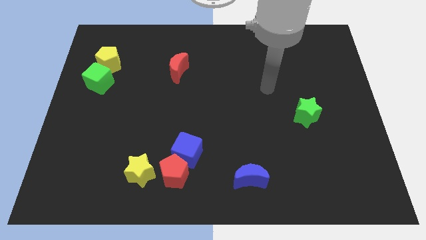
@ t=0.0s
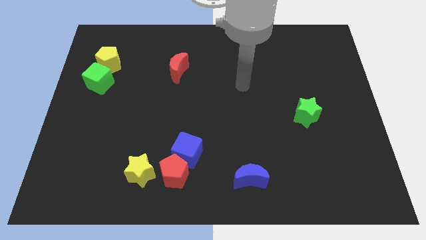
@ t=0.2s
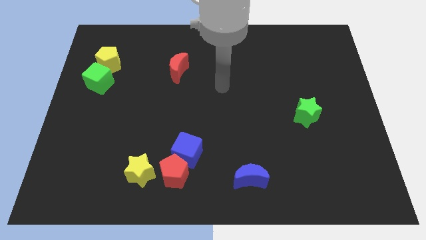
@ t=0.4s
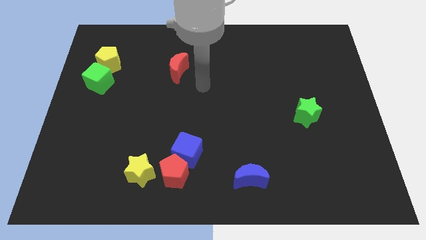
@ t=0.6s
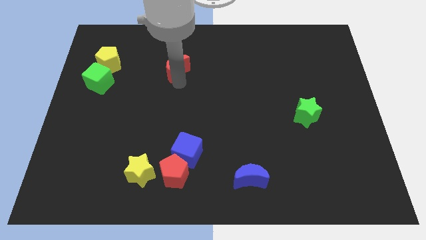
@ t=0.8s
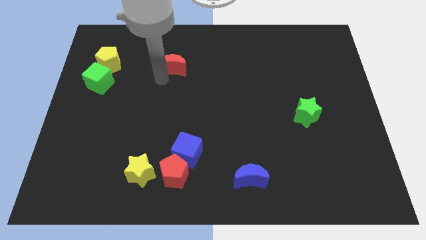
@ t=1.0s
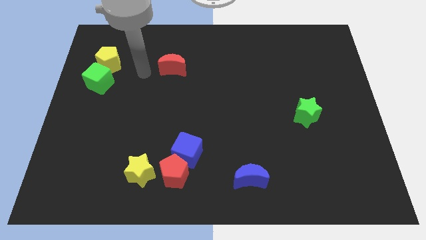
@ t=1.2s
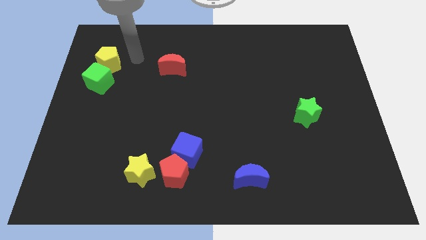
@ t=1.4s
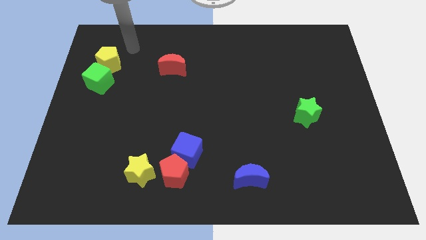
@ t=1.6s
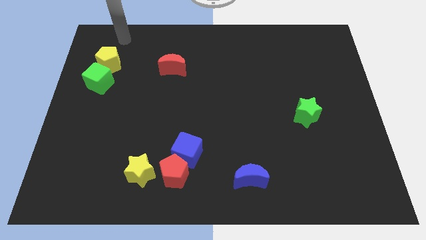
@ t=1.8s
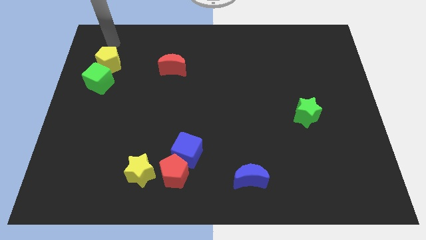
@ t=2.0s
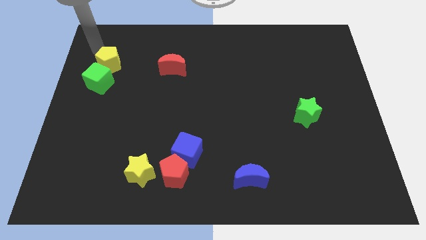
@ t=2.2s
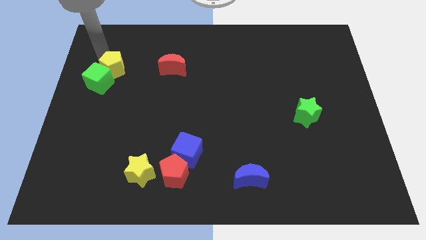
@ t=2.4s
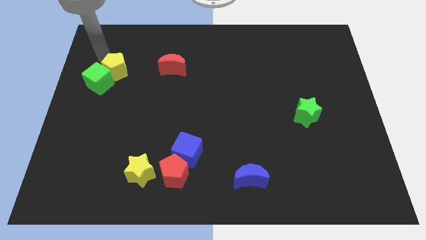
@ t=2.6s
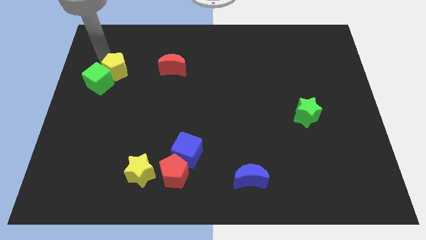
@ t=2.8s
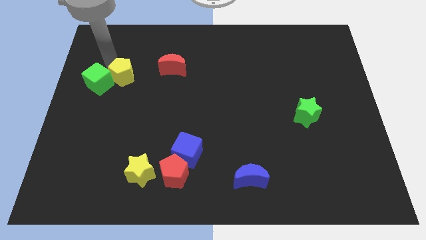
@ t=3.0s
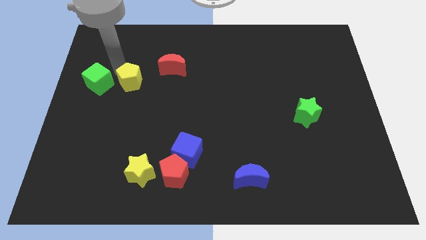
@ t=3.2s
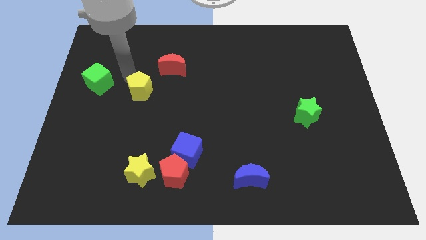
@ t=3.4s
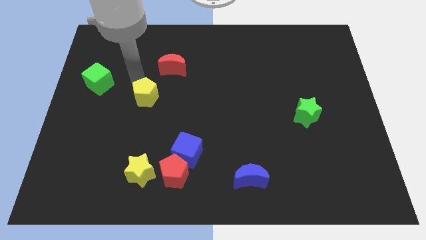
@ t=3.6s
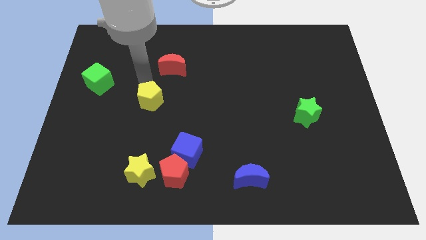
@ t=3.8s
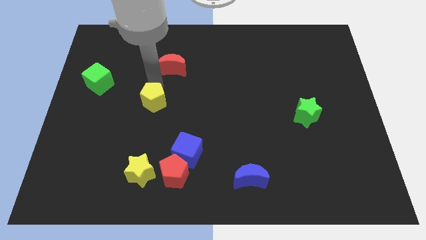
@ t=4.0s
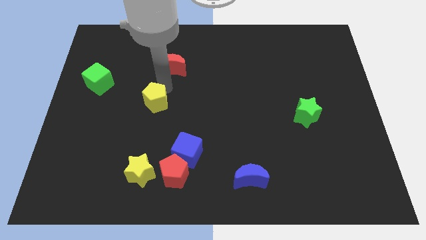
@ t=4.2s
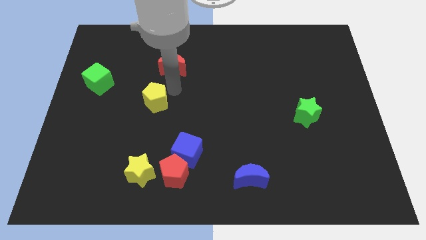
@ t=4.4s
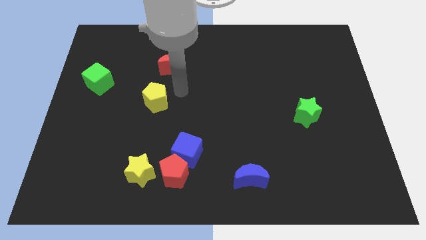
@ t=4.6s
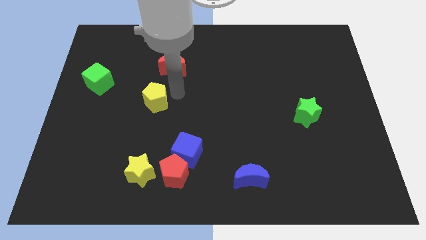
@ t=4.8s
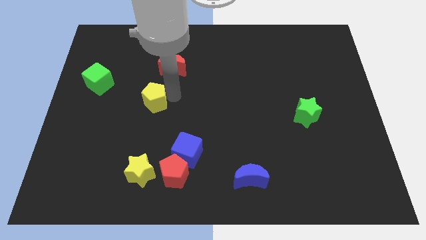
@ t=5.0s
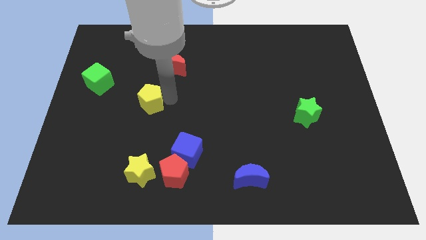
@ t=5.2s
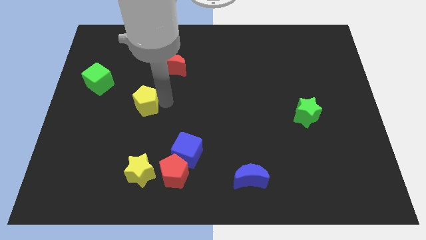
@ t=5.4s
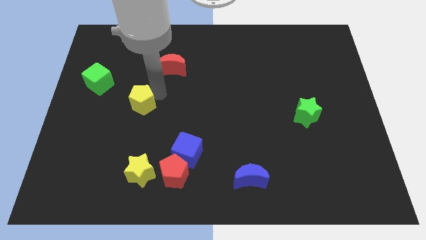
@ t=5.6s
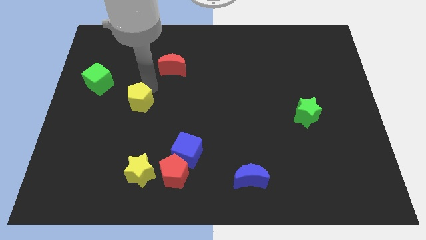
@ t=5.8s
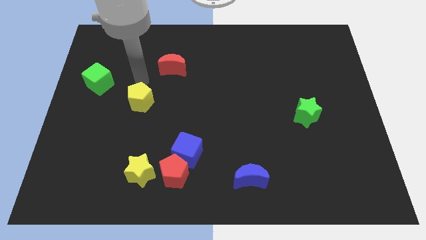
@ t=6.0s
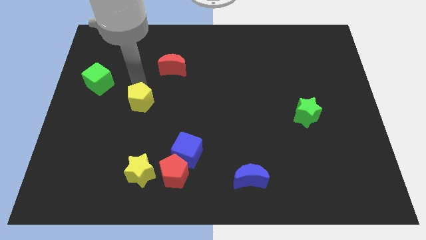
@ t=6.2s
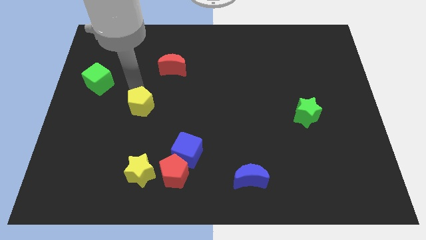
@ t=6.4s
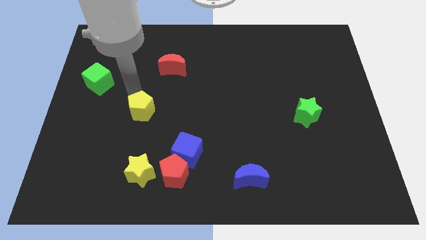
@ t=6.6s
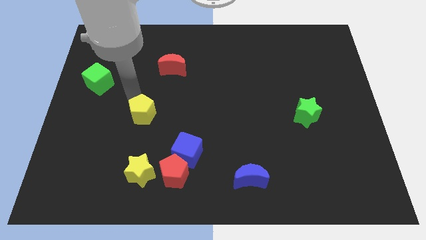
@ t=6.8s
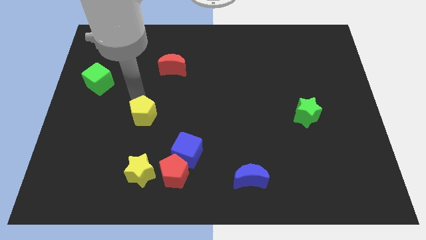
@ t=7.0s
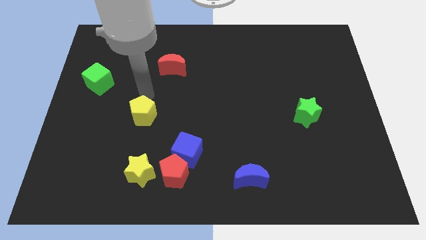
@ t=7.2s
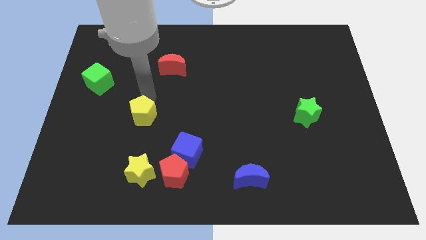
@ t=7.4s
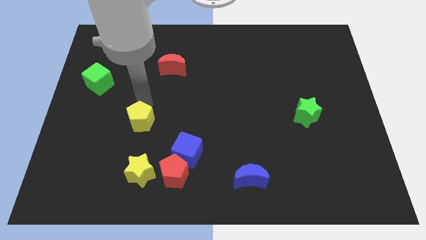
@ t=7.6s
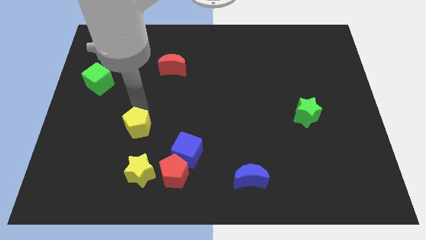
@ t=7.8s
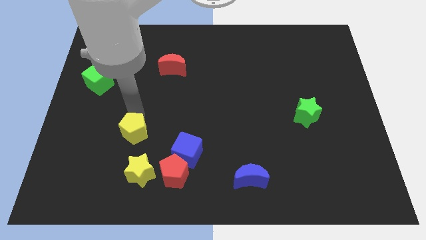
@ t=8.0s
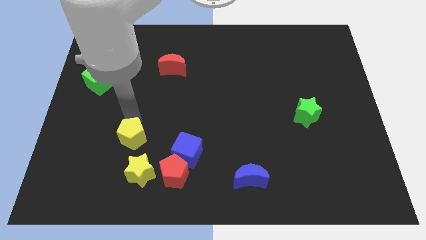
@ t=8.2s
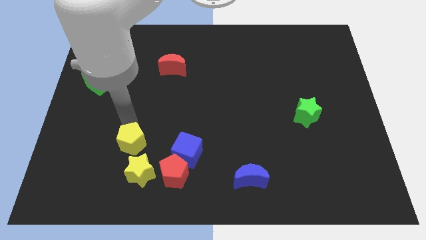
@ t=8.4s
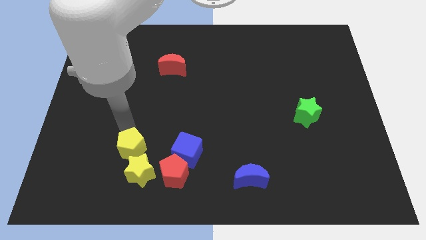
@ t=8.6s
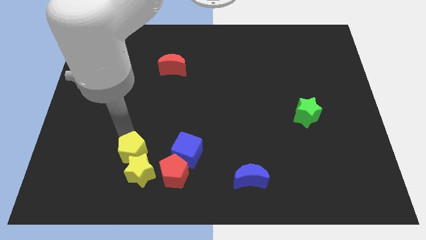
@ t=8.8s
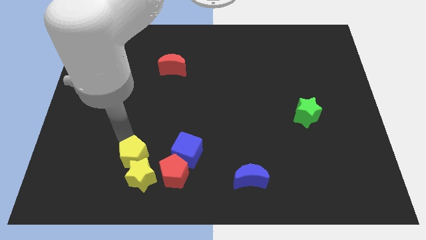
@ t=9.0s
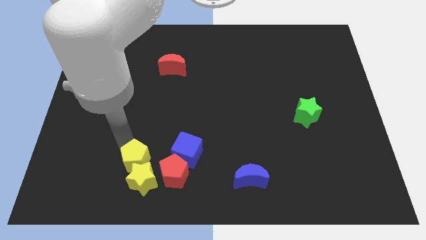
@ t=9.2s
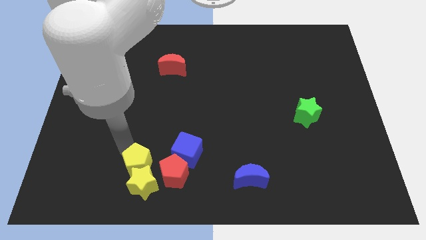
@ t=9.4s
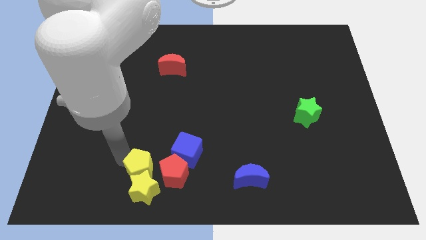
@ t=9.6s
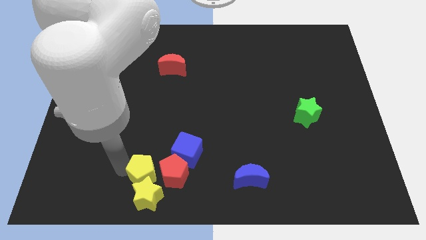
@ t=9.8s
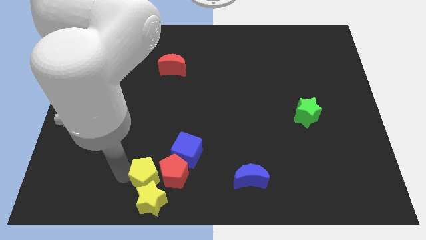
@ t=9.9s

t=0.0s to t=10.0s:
push the yellow pentagon to the red pentagon

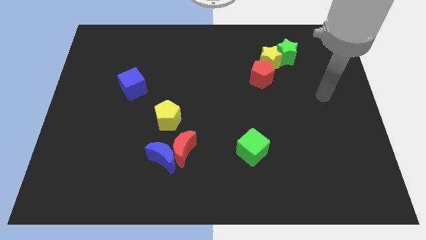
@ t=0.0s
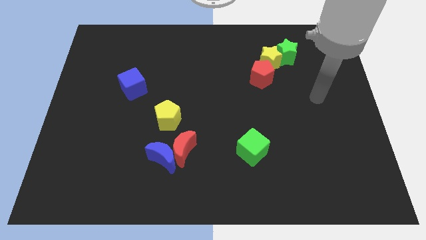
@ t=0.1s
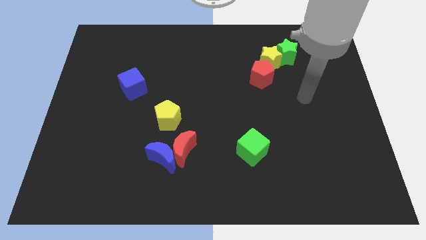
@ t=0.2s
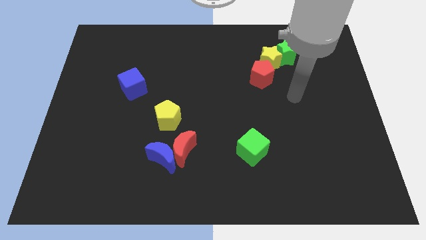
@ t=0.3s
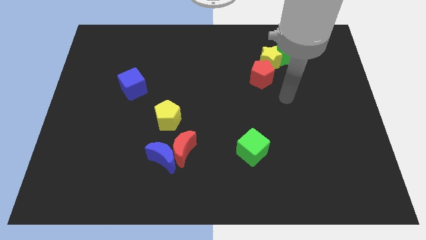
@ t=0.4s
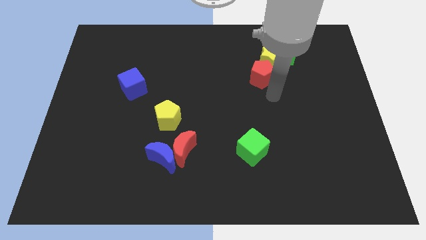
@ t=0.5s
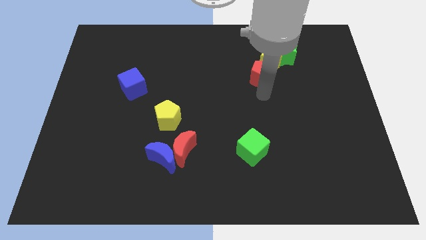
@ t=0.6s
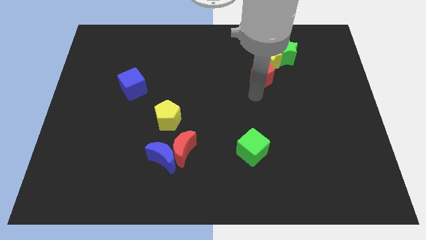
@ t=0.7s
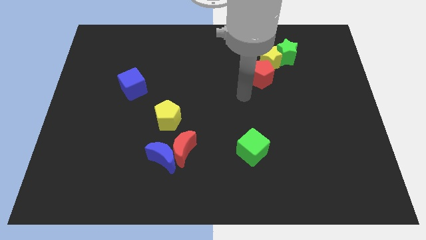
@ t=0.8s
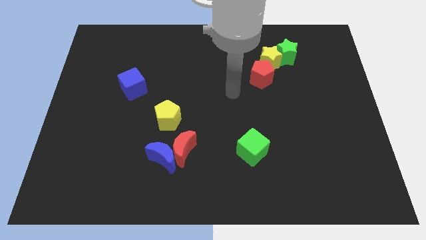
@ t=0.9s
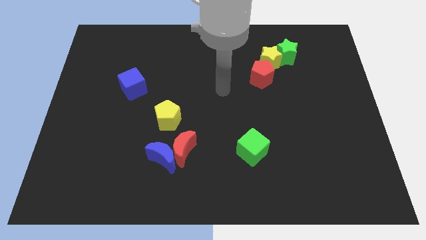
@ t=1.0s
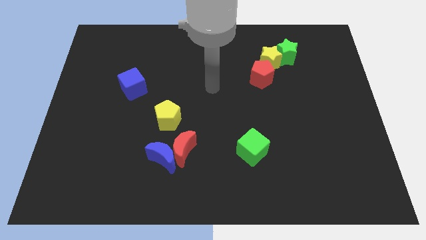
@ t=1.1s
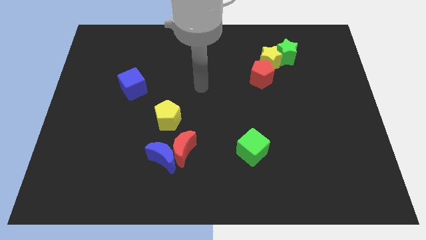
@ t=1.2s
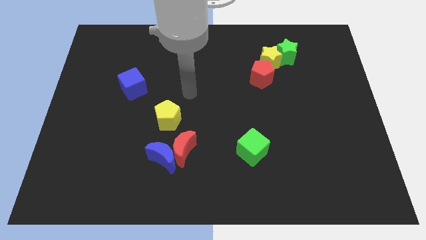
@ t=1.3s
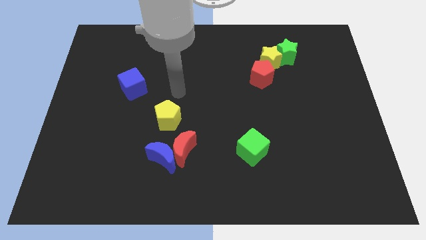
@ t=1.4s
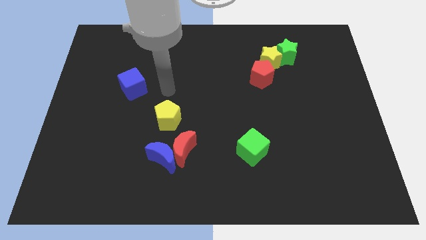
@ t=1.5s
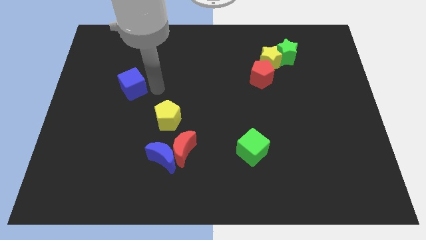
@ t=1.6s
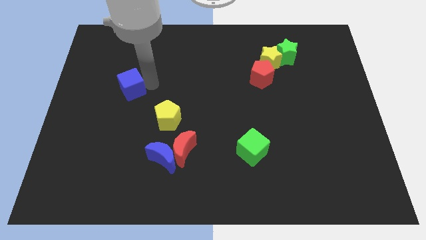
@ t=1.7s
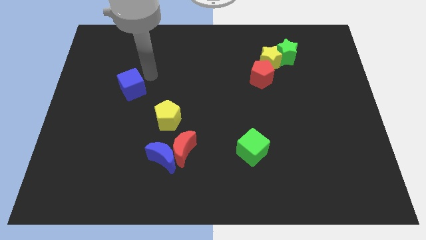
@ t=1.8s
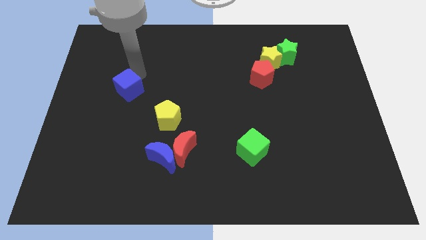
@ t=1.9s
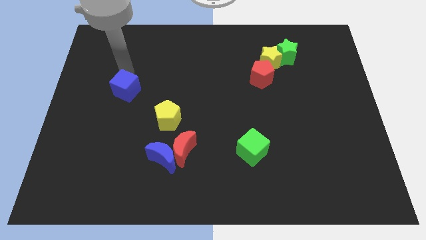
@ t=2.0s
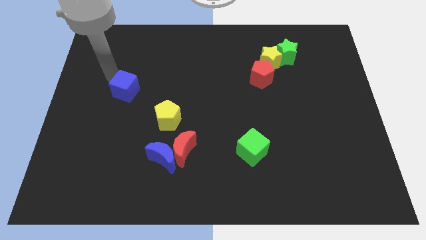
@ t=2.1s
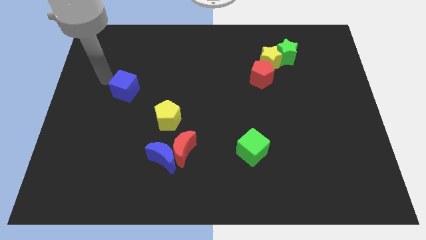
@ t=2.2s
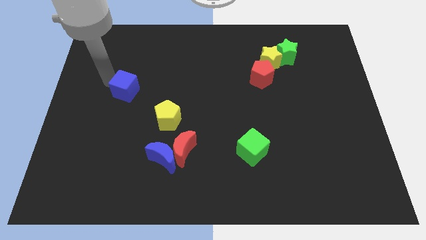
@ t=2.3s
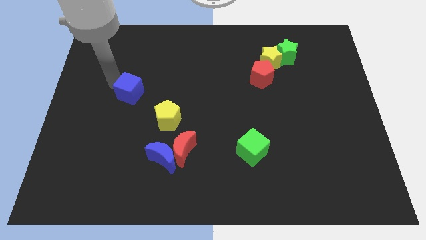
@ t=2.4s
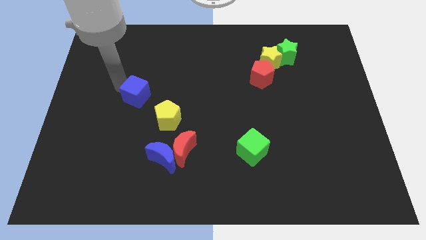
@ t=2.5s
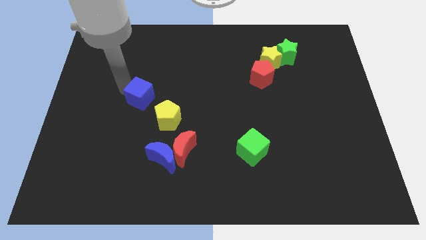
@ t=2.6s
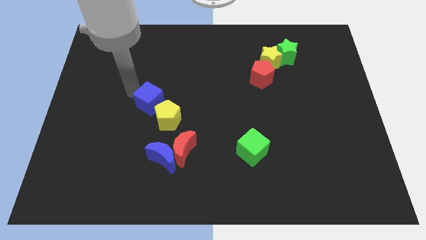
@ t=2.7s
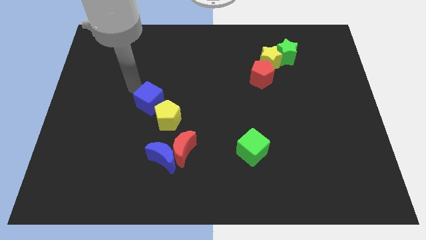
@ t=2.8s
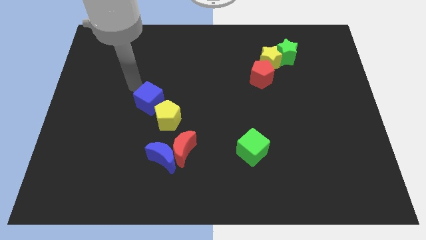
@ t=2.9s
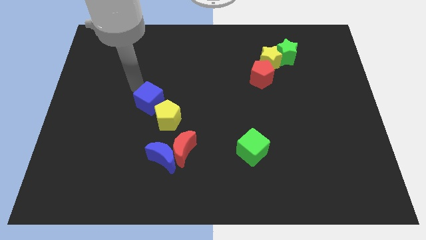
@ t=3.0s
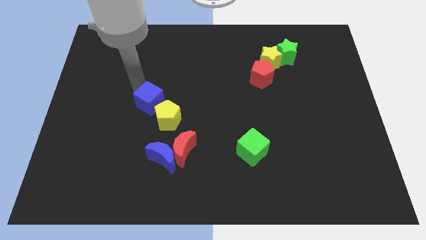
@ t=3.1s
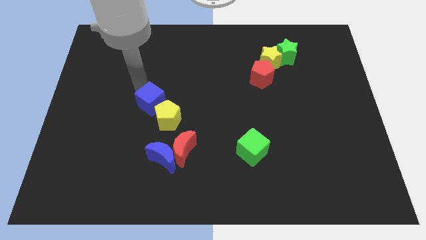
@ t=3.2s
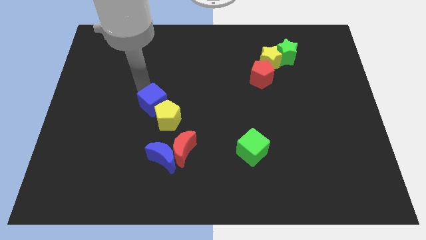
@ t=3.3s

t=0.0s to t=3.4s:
move the blue cube towards the yellow pentagon
